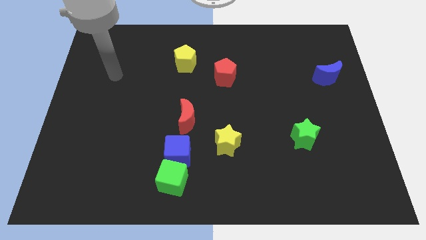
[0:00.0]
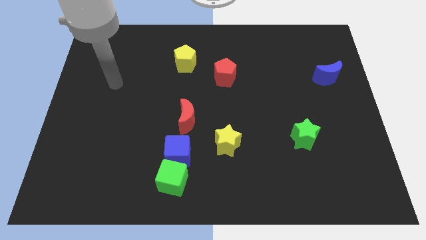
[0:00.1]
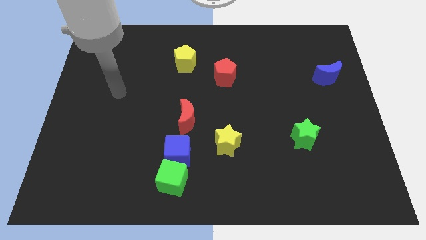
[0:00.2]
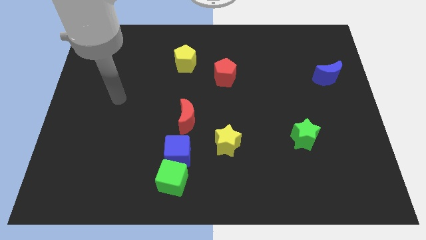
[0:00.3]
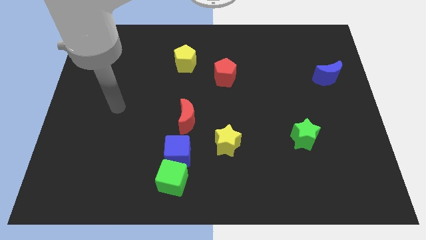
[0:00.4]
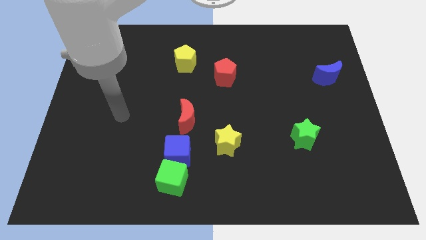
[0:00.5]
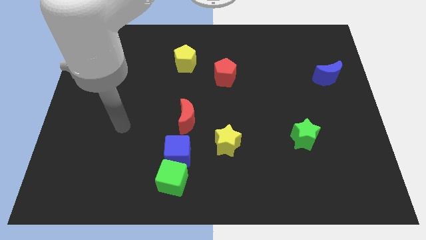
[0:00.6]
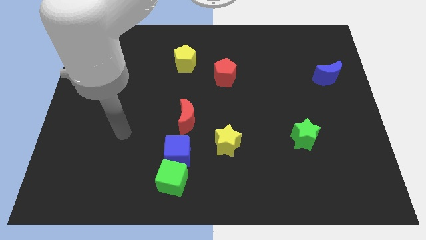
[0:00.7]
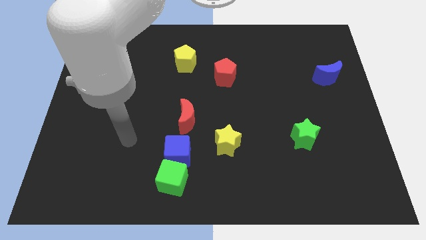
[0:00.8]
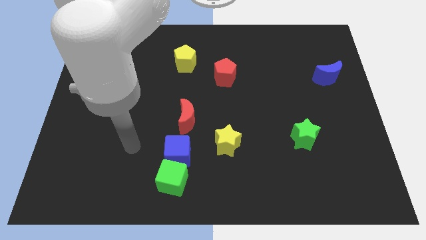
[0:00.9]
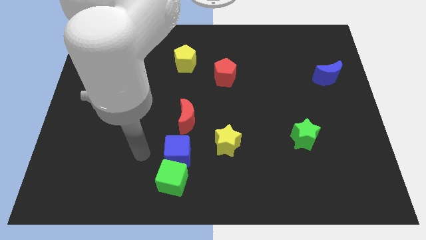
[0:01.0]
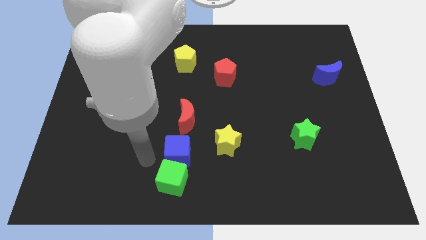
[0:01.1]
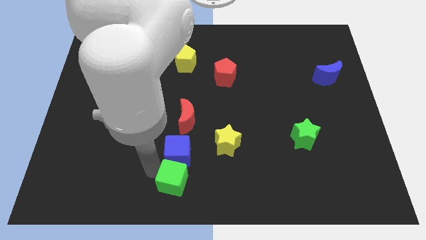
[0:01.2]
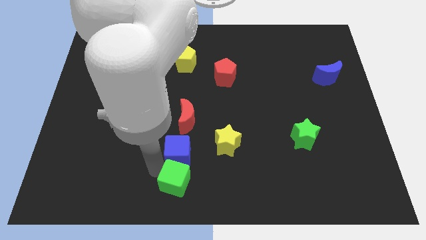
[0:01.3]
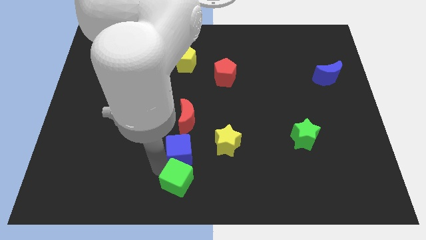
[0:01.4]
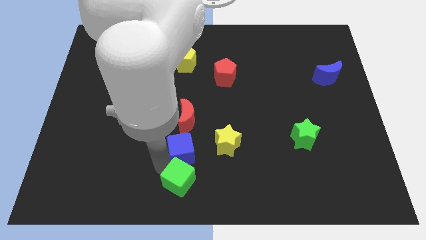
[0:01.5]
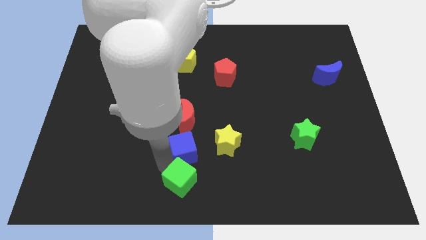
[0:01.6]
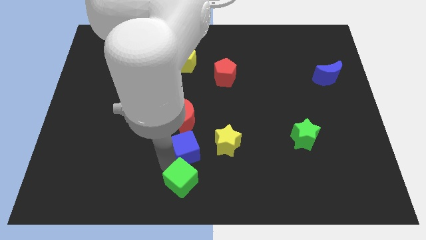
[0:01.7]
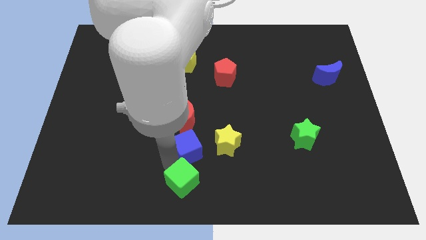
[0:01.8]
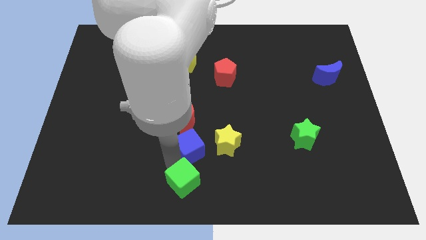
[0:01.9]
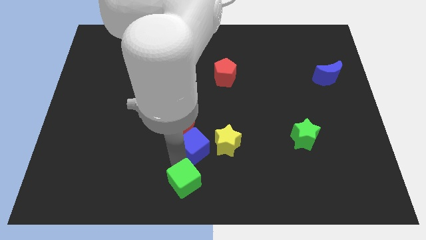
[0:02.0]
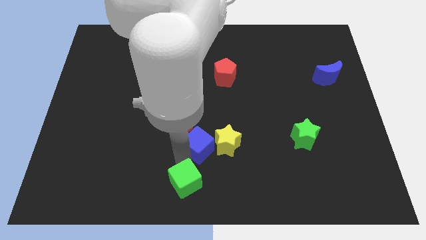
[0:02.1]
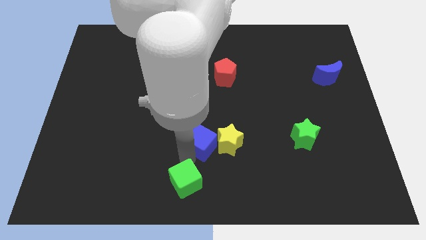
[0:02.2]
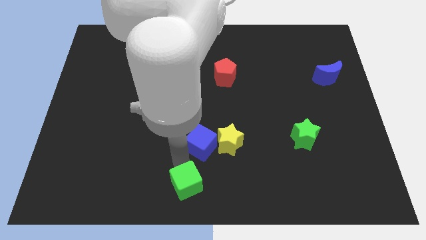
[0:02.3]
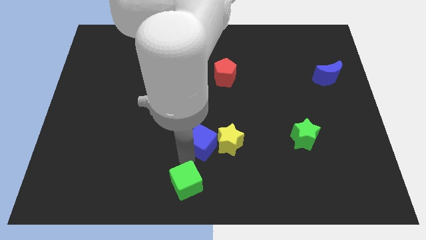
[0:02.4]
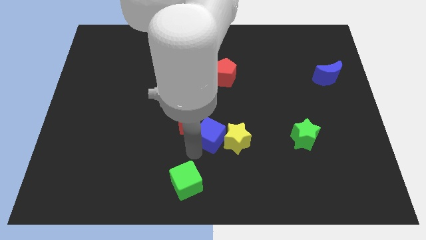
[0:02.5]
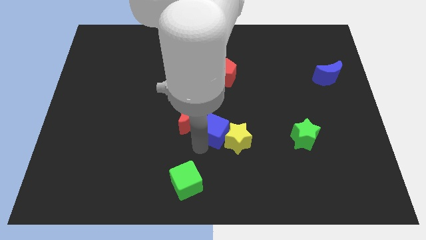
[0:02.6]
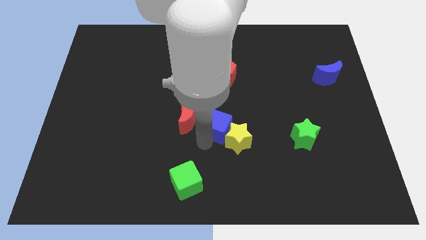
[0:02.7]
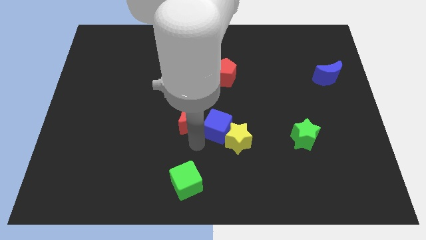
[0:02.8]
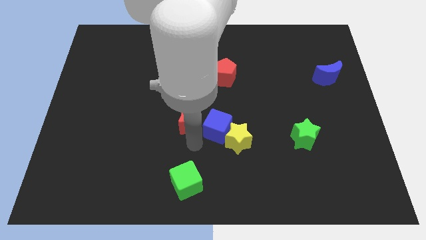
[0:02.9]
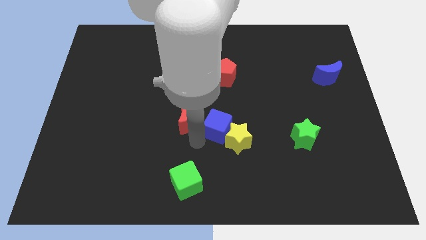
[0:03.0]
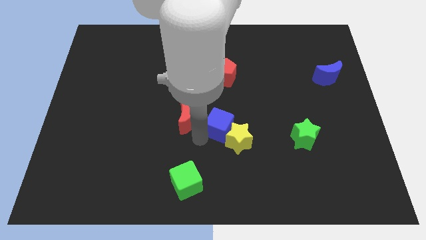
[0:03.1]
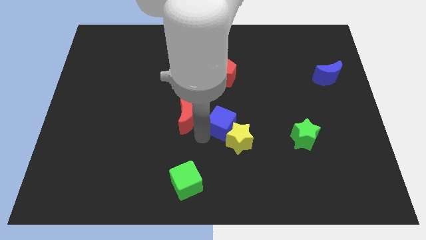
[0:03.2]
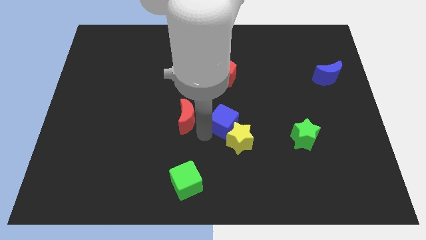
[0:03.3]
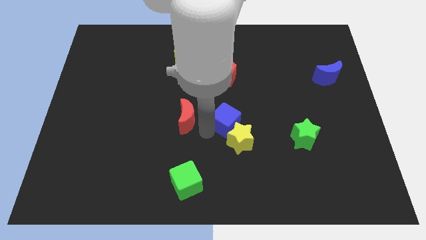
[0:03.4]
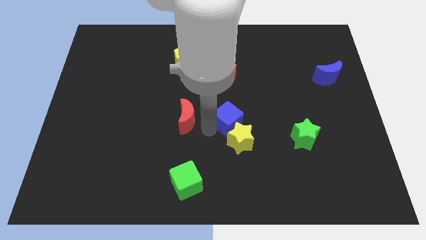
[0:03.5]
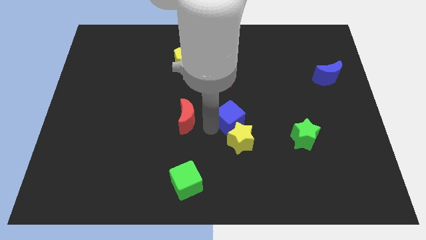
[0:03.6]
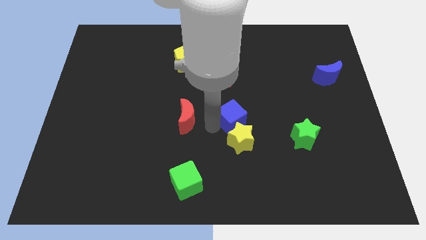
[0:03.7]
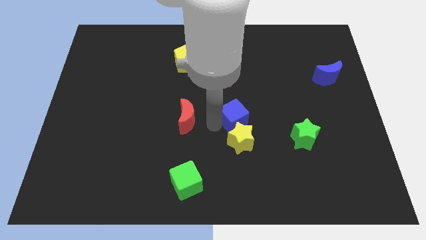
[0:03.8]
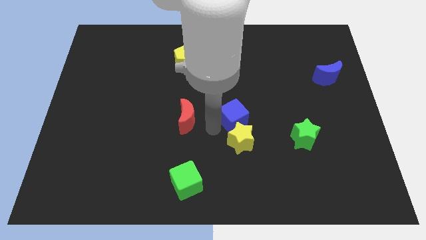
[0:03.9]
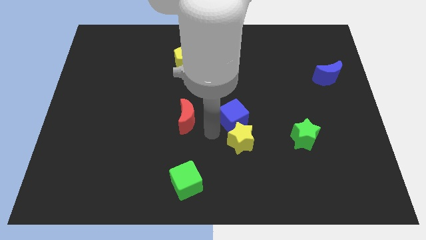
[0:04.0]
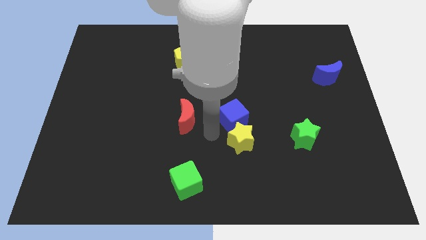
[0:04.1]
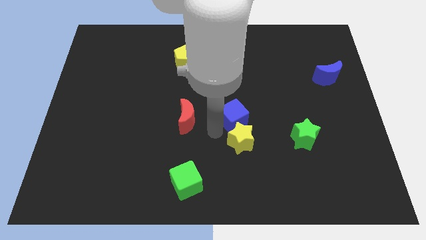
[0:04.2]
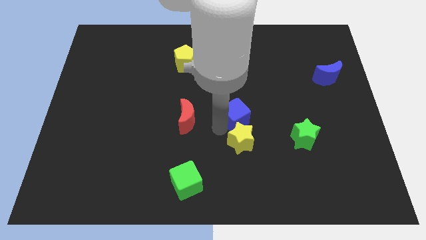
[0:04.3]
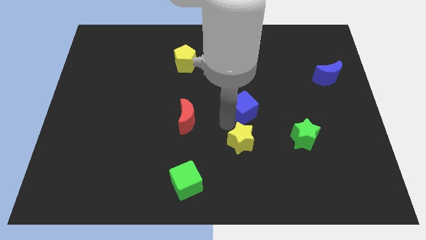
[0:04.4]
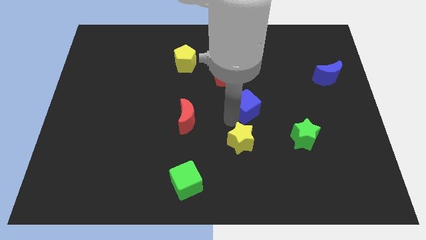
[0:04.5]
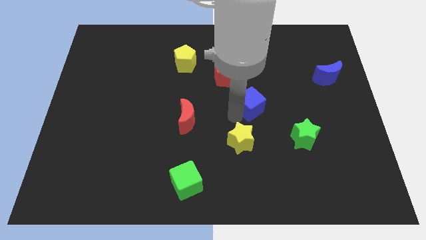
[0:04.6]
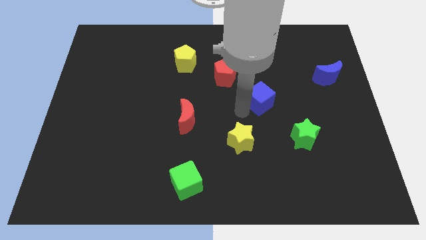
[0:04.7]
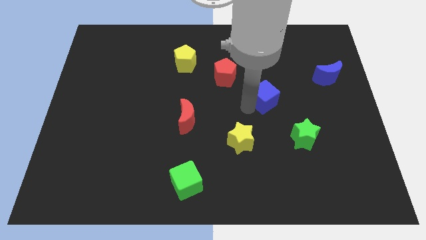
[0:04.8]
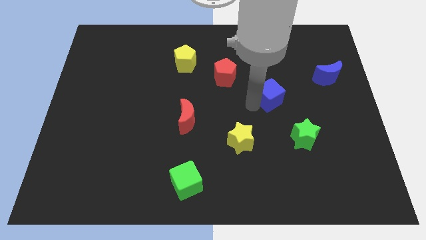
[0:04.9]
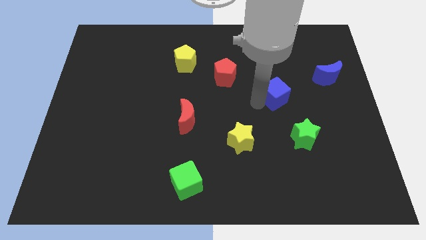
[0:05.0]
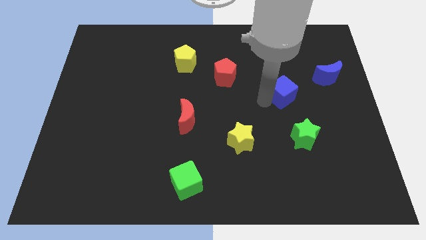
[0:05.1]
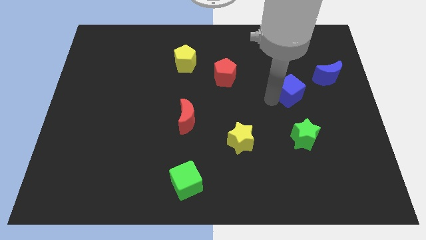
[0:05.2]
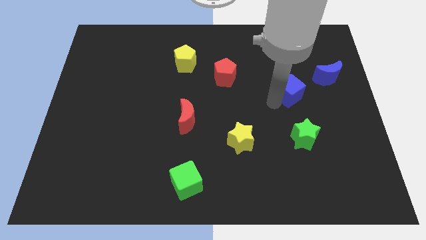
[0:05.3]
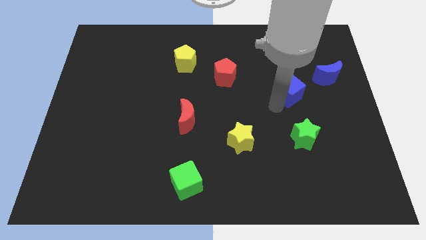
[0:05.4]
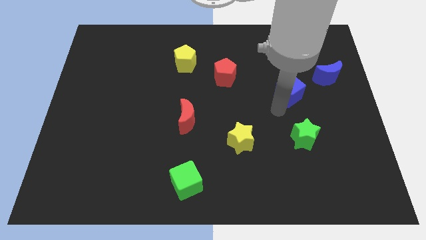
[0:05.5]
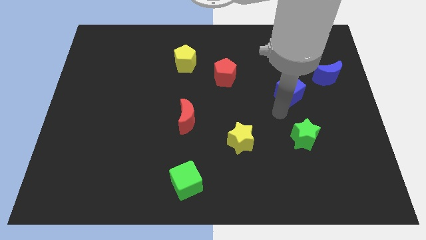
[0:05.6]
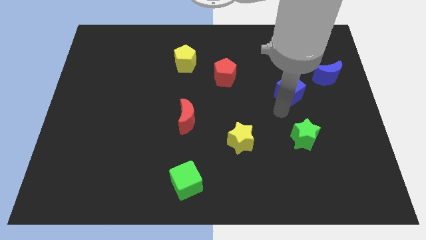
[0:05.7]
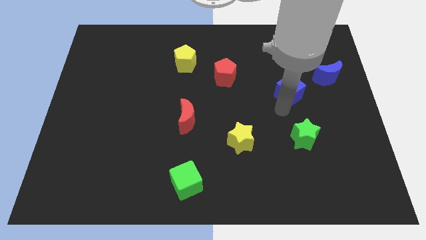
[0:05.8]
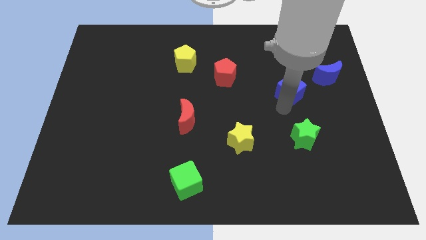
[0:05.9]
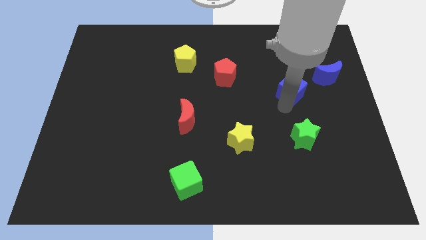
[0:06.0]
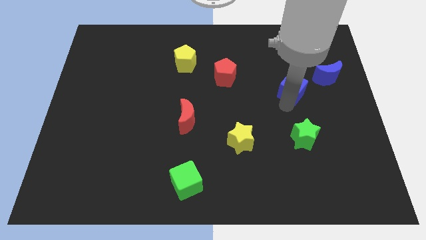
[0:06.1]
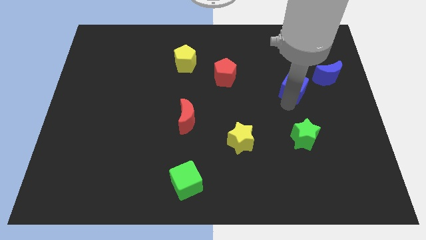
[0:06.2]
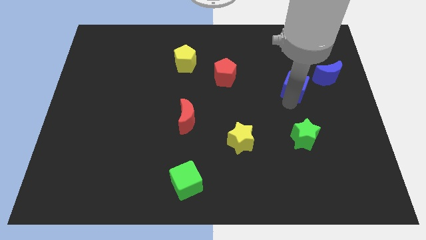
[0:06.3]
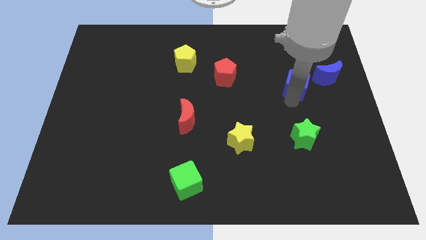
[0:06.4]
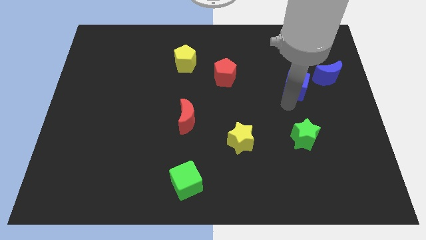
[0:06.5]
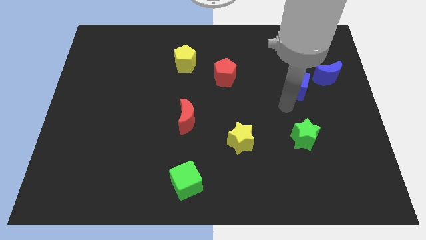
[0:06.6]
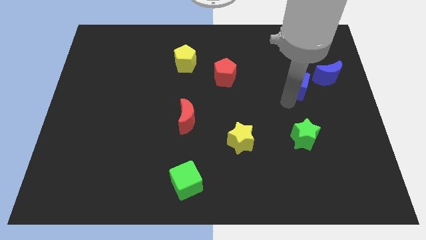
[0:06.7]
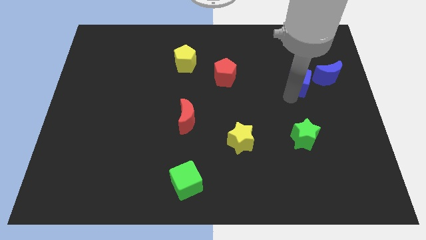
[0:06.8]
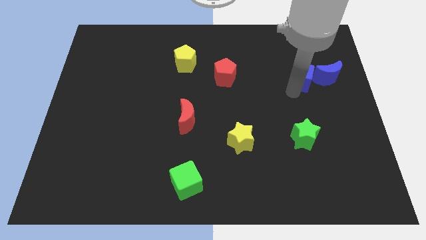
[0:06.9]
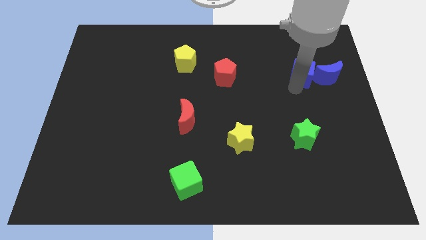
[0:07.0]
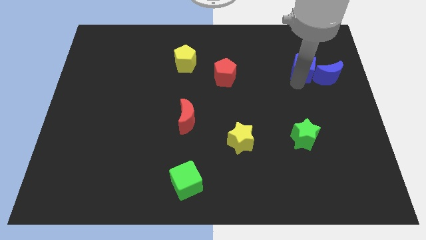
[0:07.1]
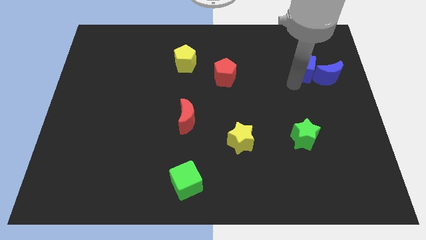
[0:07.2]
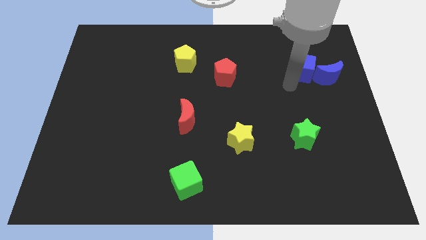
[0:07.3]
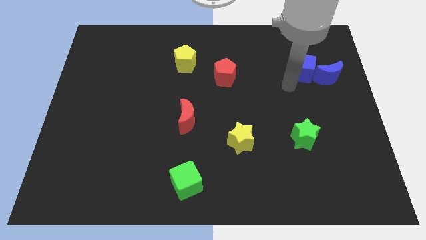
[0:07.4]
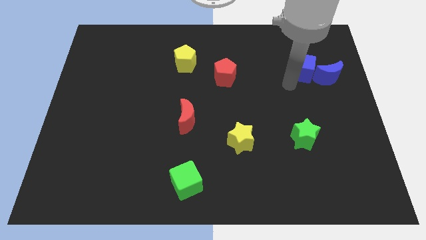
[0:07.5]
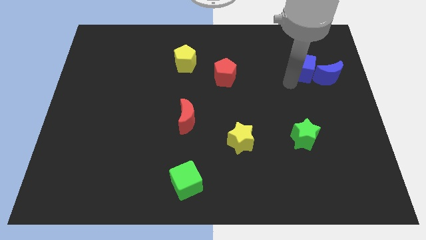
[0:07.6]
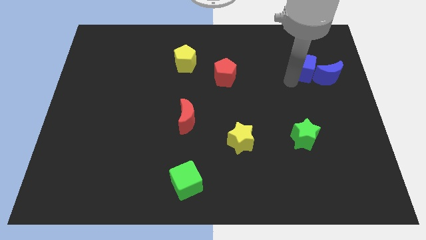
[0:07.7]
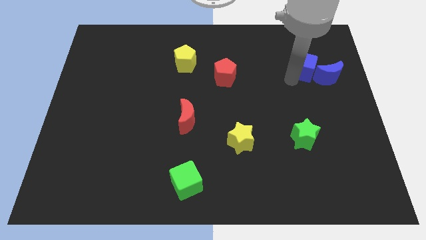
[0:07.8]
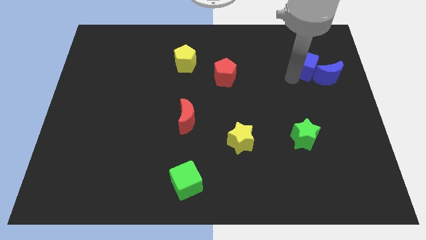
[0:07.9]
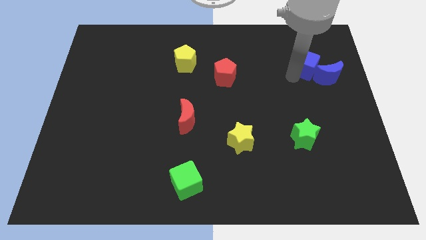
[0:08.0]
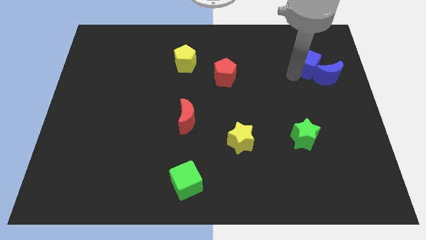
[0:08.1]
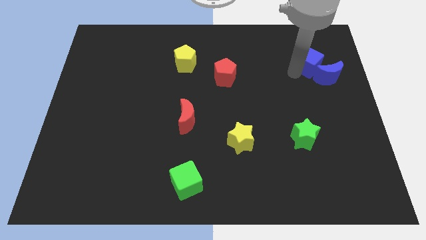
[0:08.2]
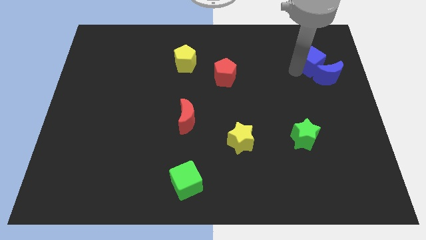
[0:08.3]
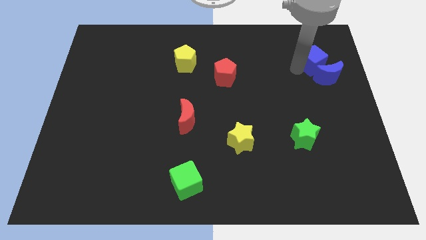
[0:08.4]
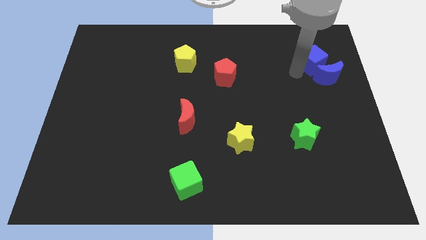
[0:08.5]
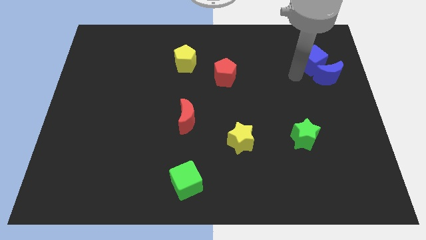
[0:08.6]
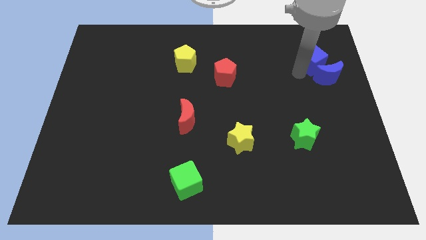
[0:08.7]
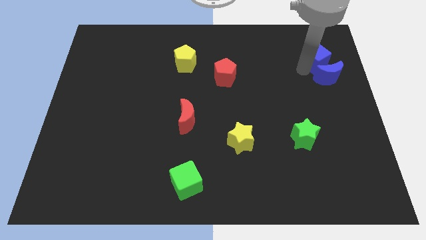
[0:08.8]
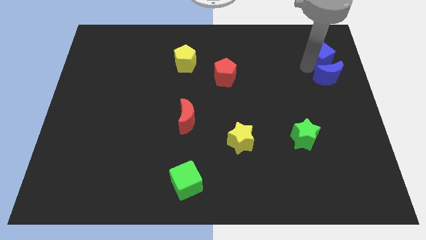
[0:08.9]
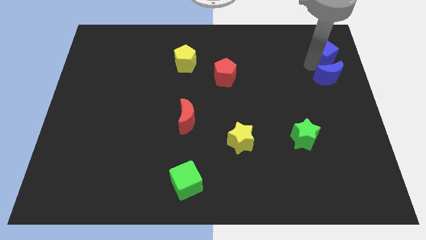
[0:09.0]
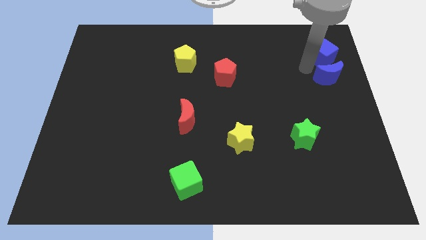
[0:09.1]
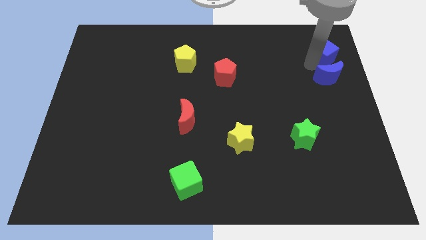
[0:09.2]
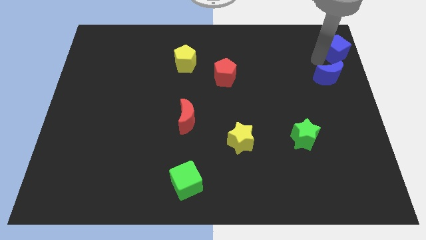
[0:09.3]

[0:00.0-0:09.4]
move the blue cube to the upper right corner
